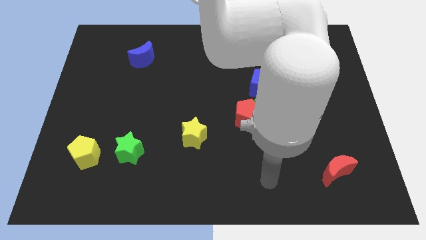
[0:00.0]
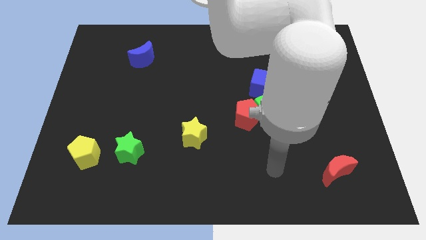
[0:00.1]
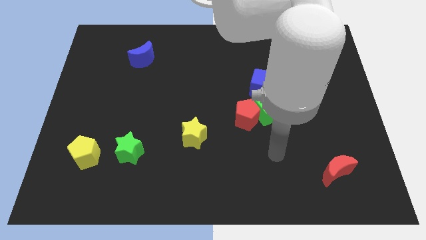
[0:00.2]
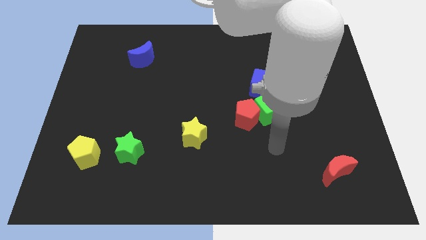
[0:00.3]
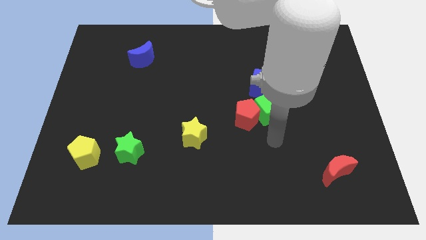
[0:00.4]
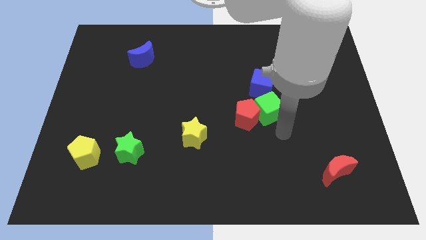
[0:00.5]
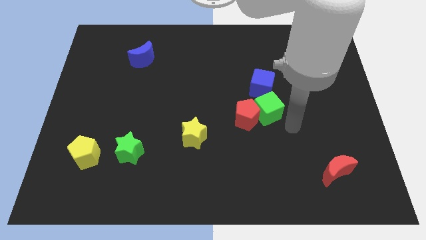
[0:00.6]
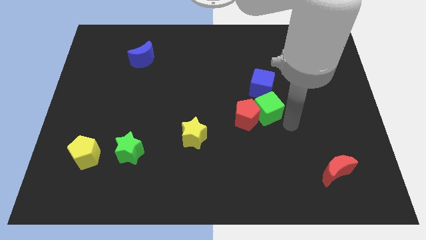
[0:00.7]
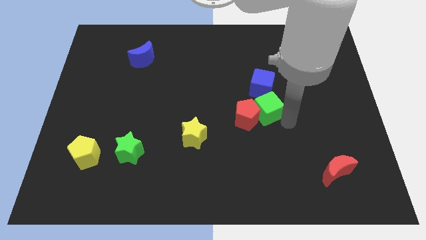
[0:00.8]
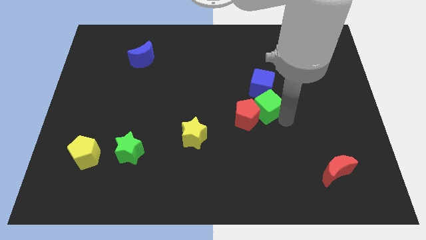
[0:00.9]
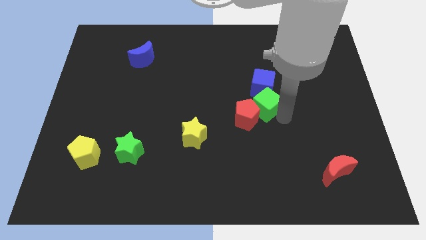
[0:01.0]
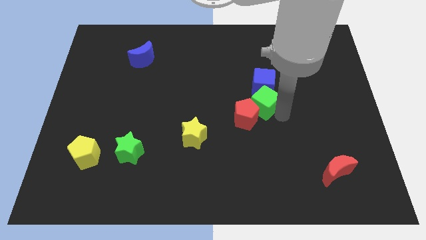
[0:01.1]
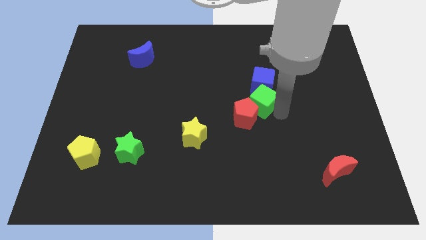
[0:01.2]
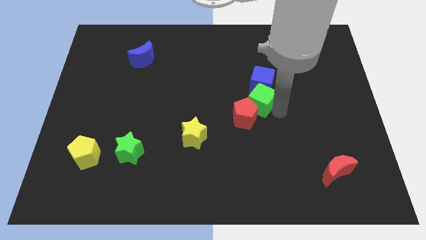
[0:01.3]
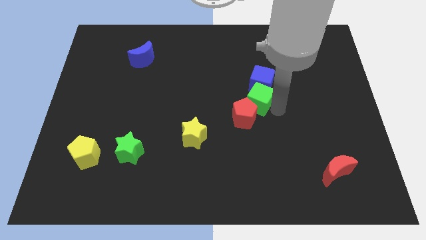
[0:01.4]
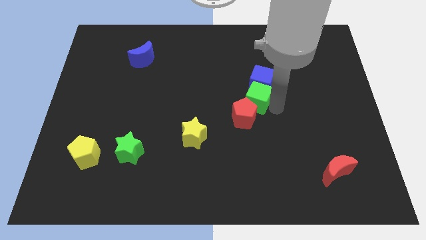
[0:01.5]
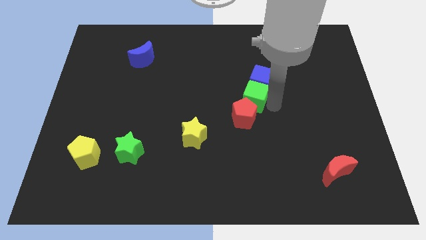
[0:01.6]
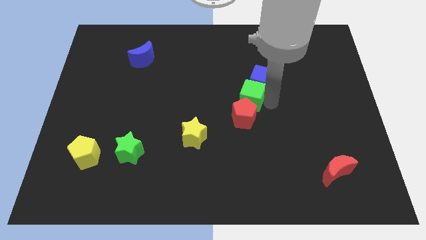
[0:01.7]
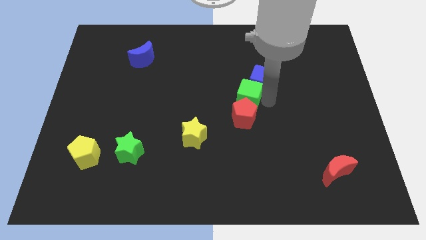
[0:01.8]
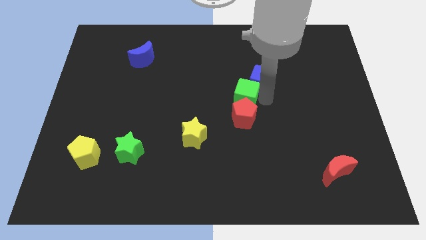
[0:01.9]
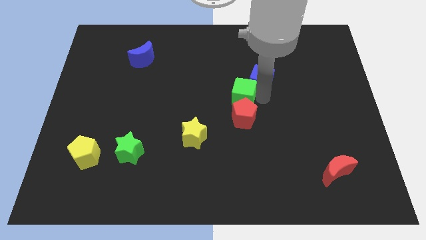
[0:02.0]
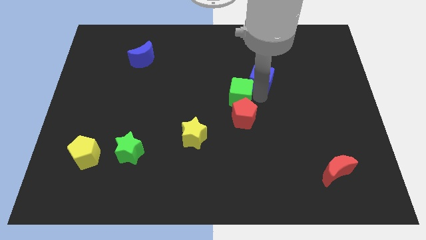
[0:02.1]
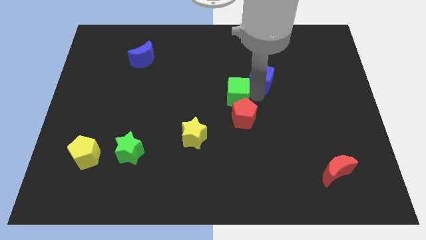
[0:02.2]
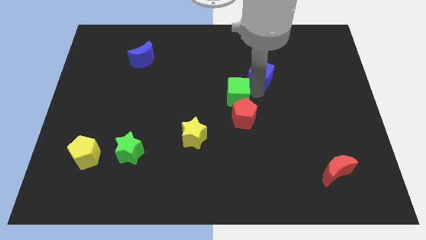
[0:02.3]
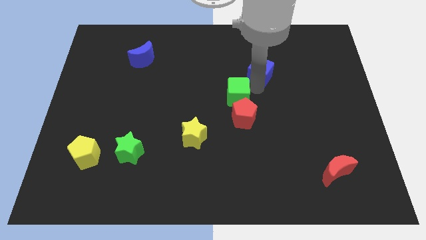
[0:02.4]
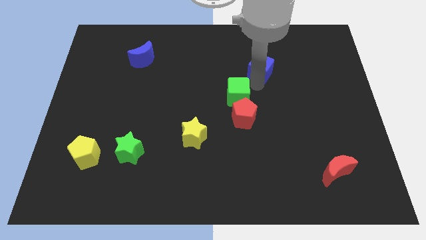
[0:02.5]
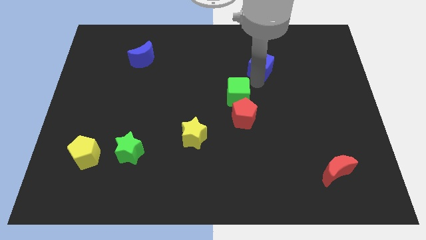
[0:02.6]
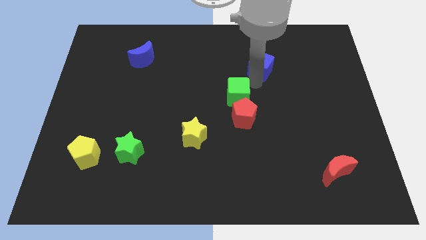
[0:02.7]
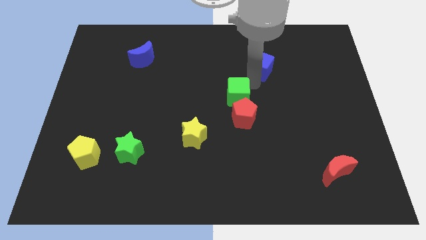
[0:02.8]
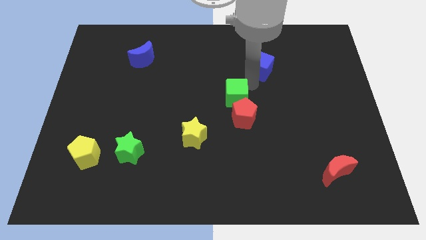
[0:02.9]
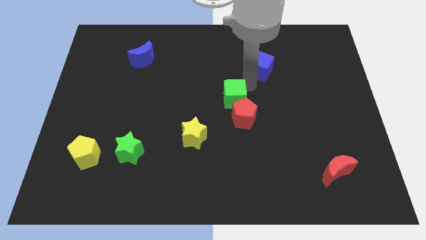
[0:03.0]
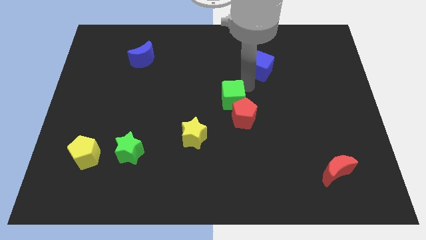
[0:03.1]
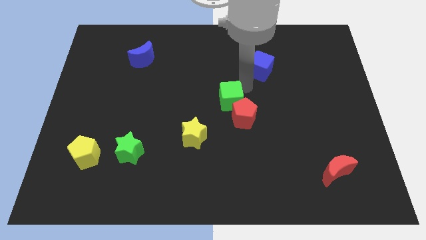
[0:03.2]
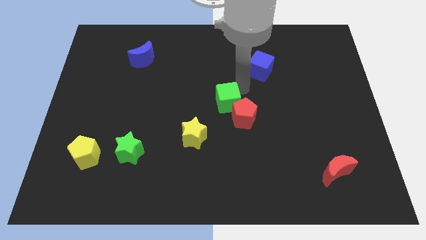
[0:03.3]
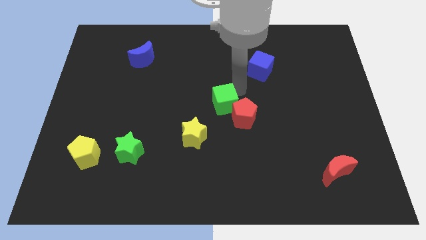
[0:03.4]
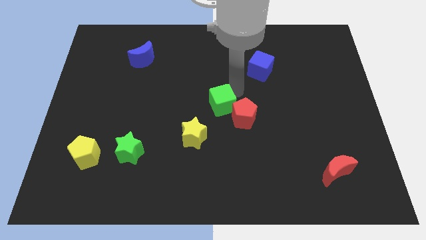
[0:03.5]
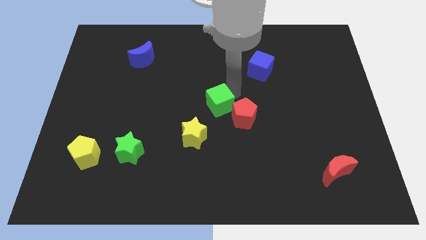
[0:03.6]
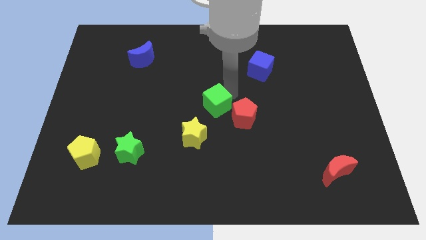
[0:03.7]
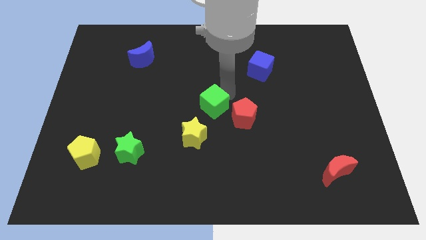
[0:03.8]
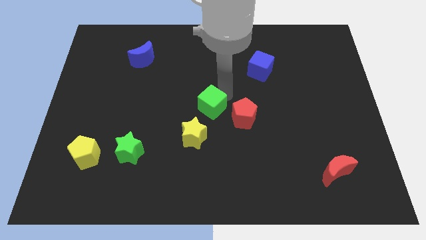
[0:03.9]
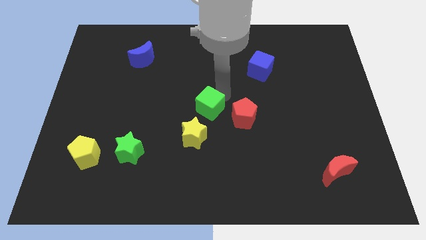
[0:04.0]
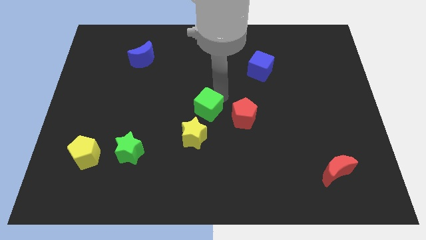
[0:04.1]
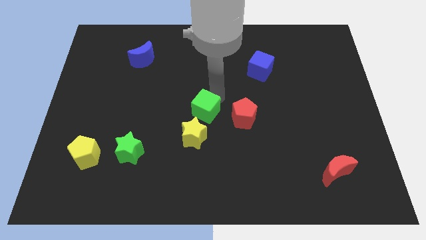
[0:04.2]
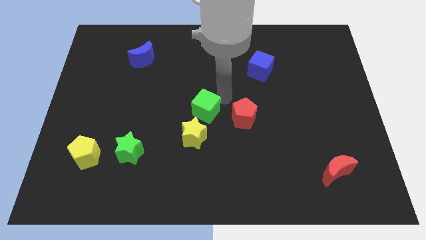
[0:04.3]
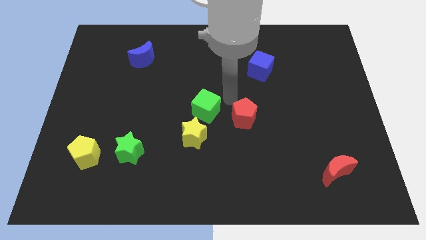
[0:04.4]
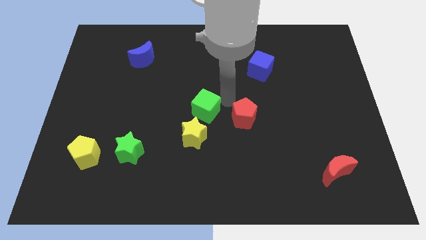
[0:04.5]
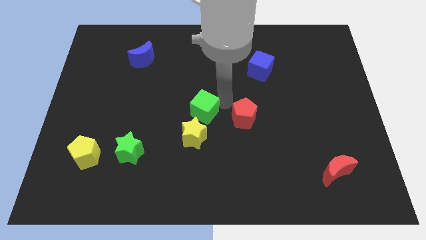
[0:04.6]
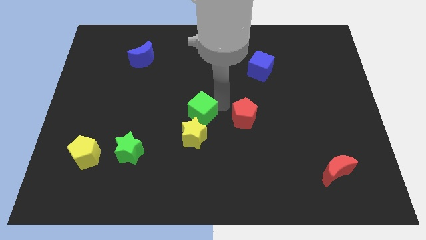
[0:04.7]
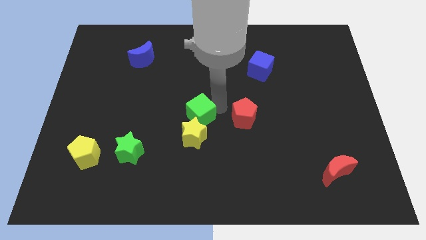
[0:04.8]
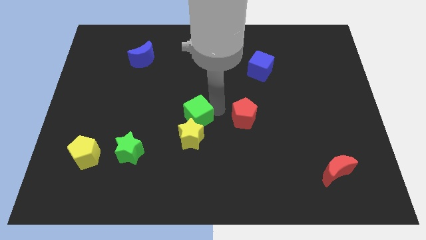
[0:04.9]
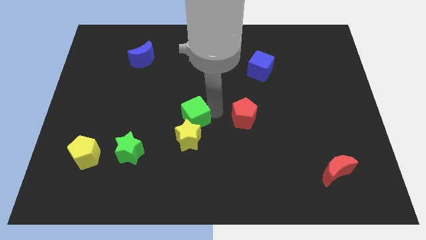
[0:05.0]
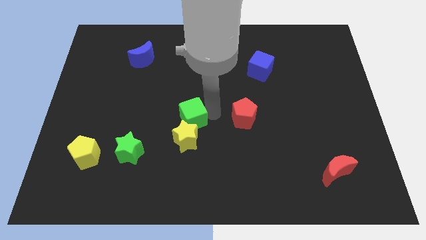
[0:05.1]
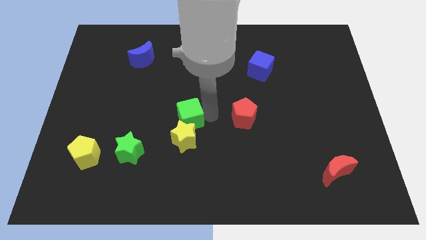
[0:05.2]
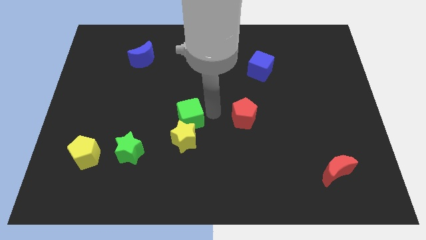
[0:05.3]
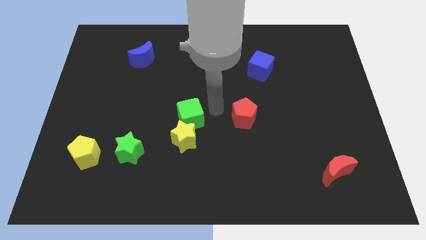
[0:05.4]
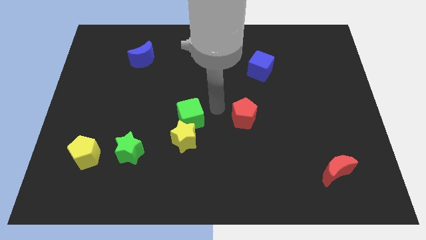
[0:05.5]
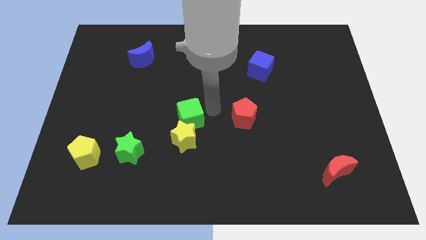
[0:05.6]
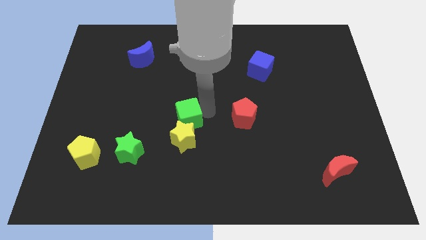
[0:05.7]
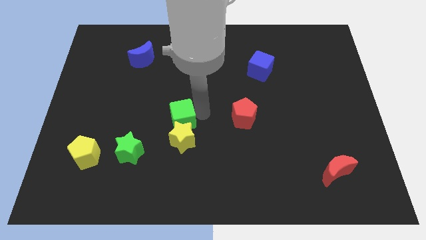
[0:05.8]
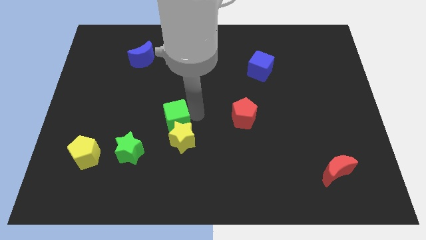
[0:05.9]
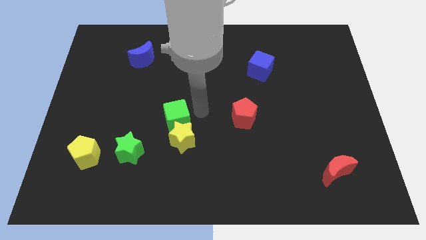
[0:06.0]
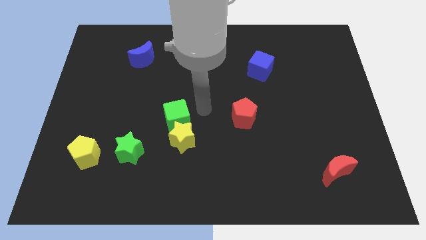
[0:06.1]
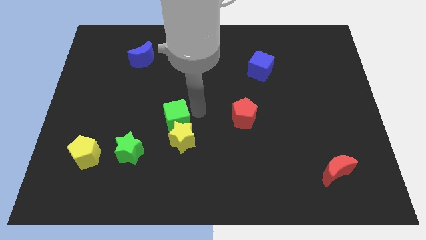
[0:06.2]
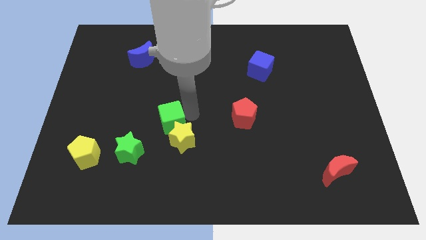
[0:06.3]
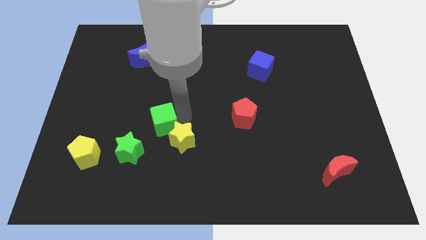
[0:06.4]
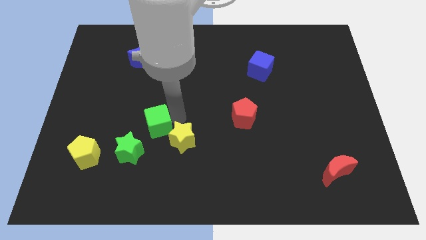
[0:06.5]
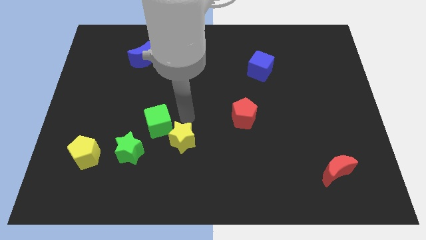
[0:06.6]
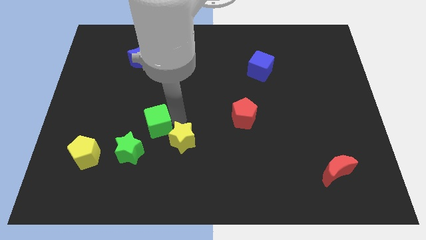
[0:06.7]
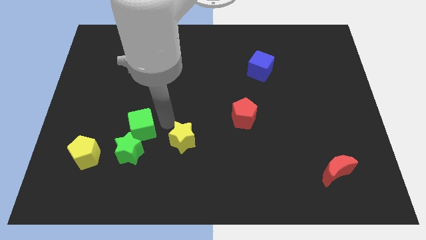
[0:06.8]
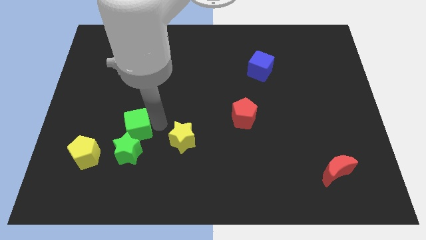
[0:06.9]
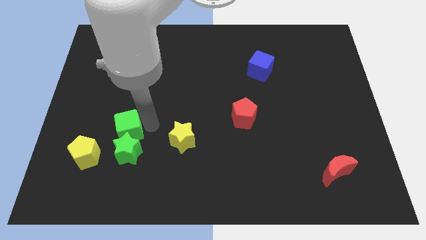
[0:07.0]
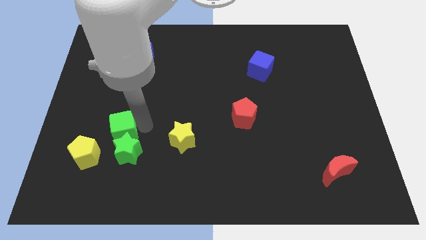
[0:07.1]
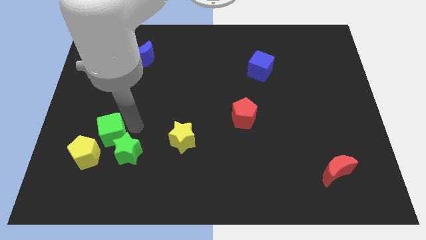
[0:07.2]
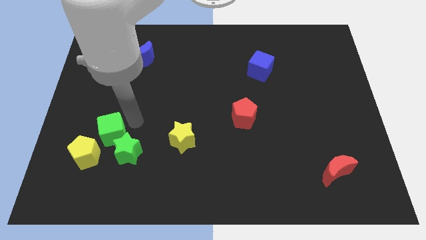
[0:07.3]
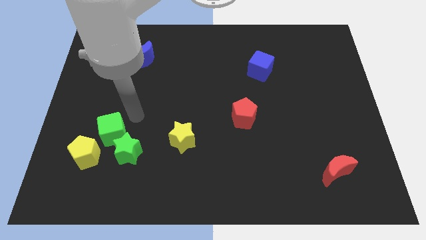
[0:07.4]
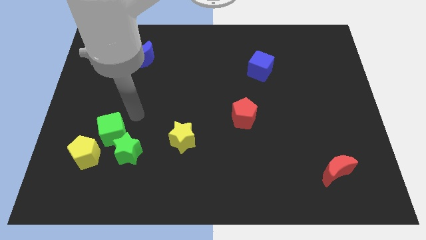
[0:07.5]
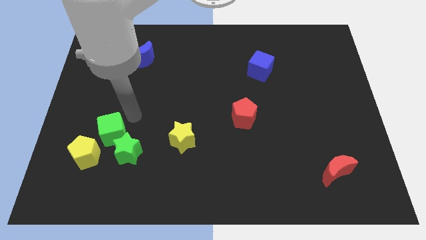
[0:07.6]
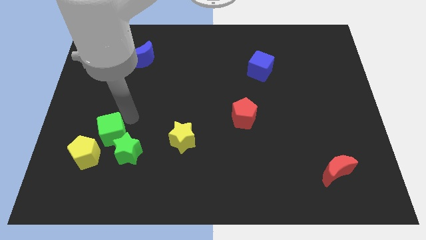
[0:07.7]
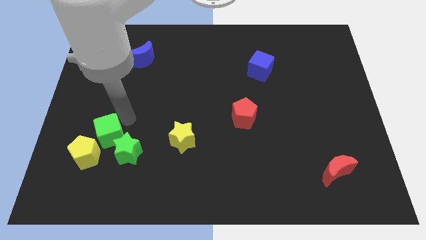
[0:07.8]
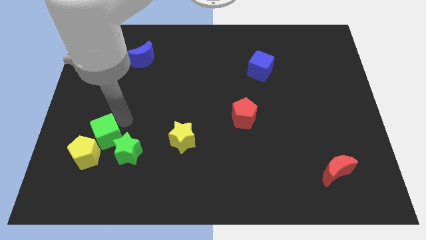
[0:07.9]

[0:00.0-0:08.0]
put the green cube close to the yellow pentagon
